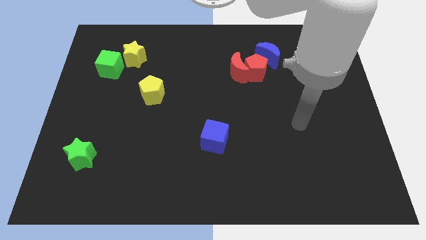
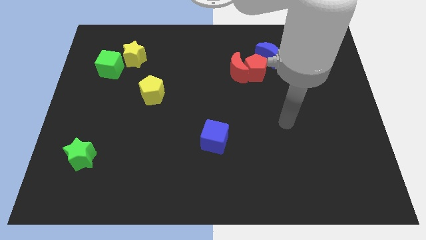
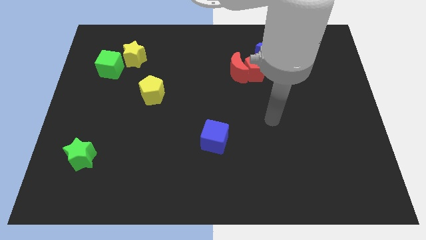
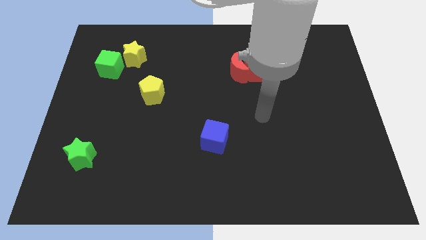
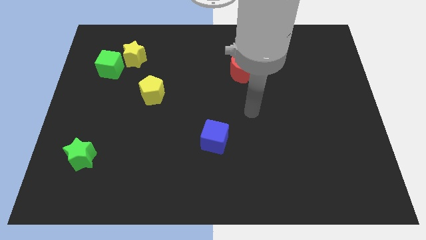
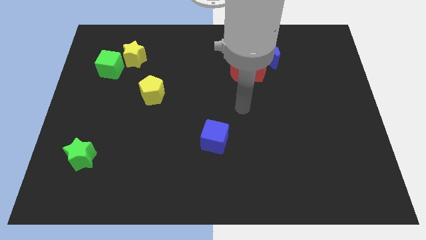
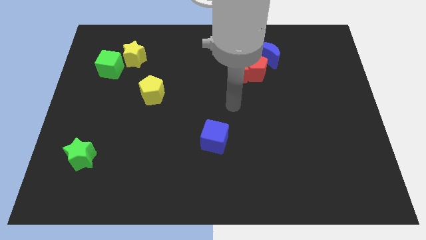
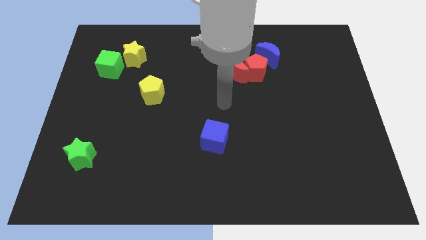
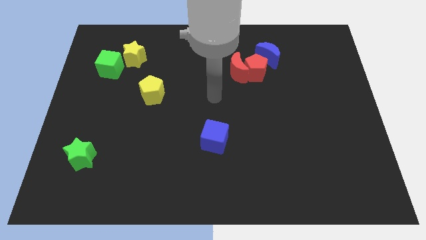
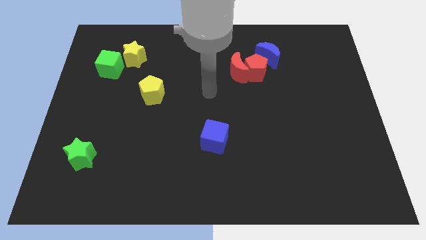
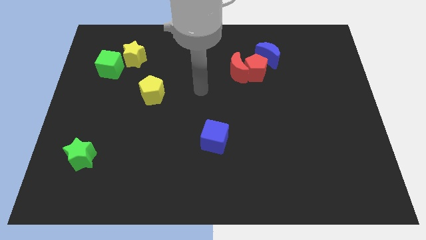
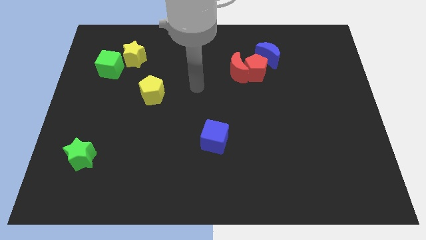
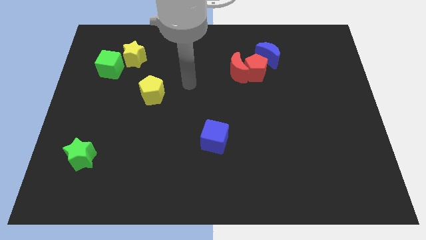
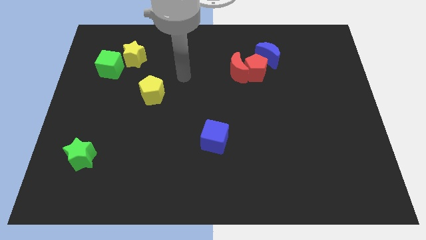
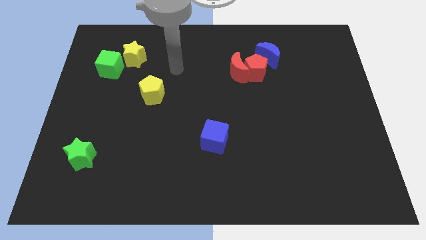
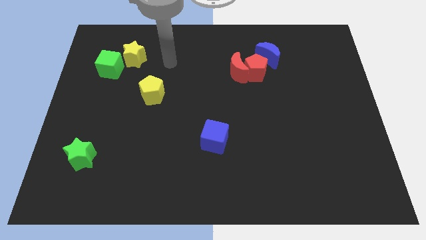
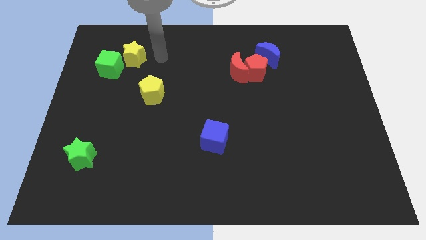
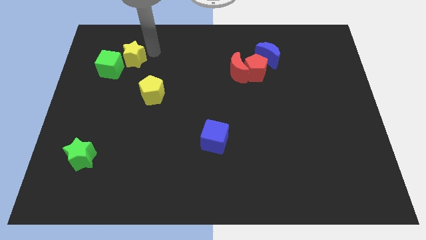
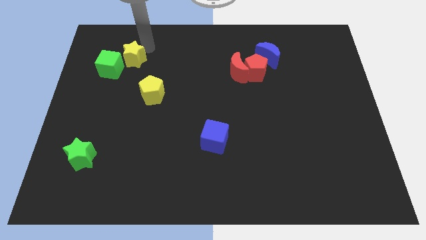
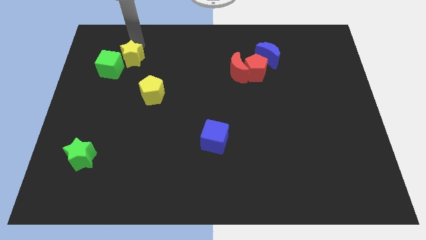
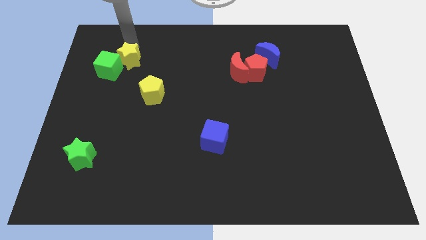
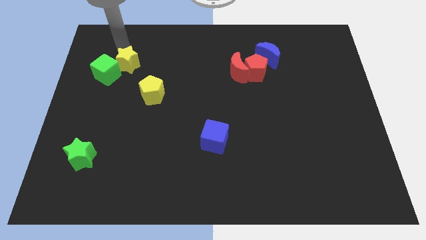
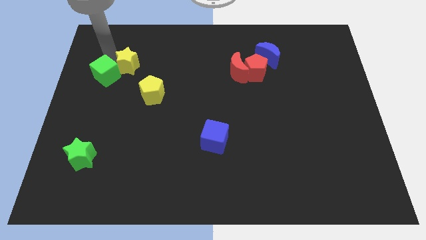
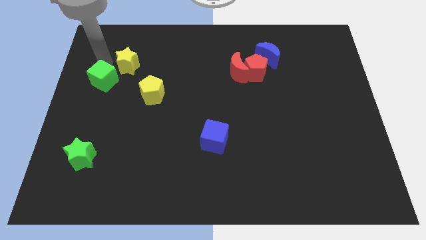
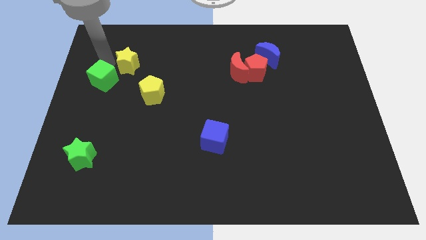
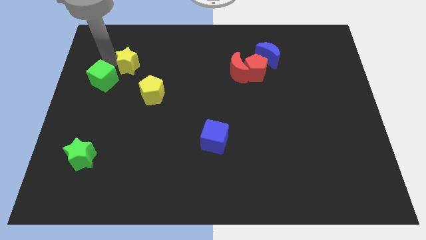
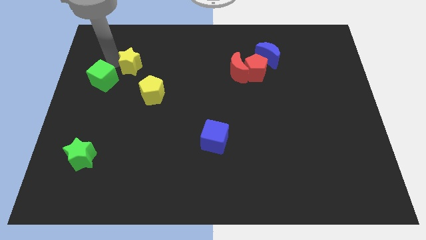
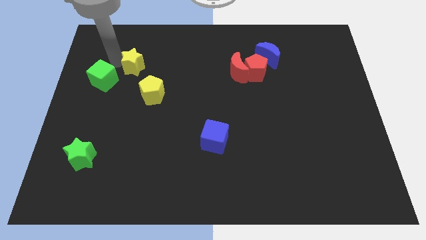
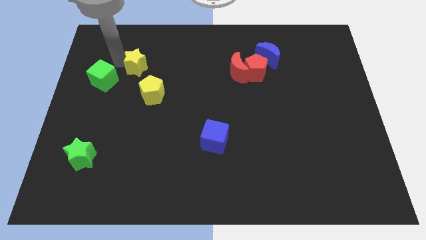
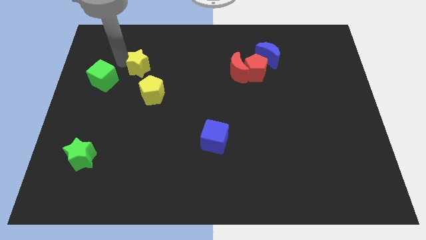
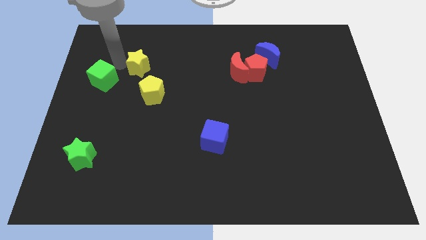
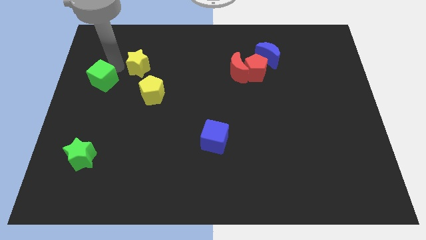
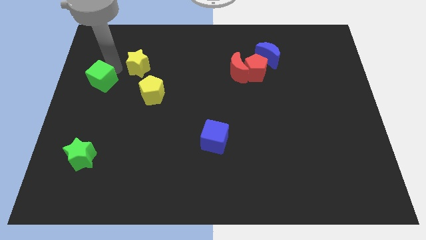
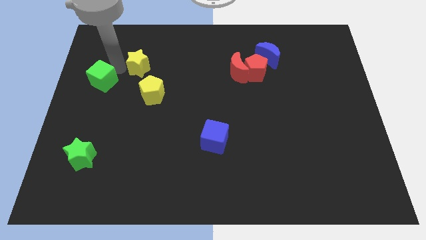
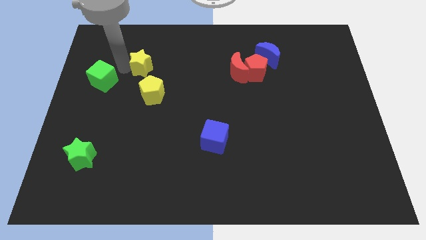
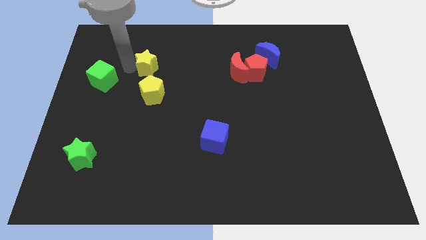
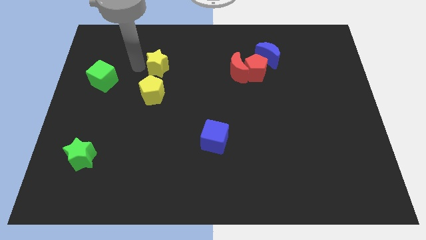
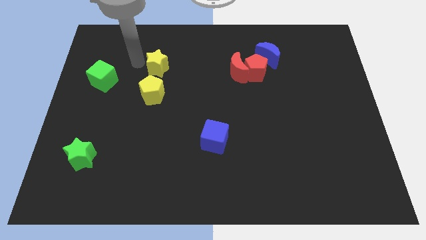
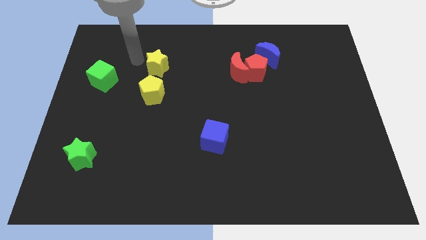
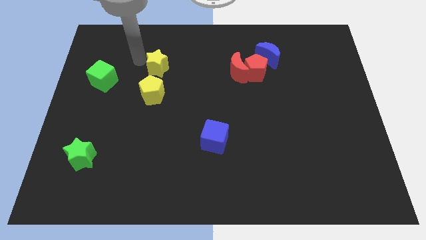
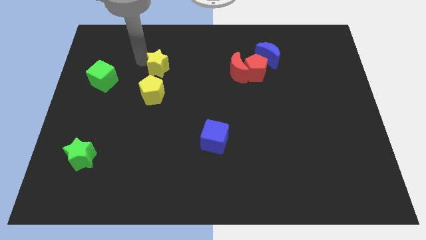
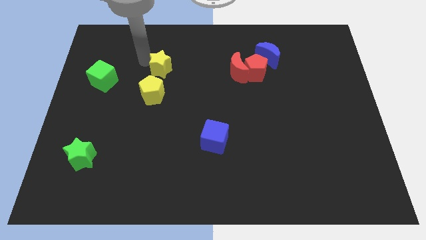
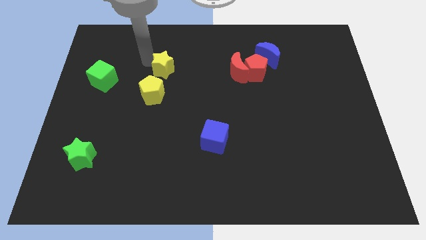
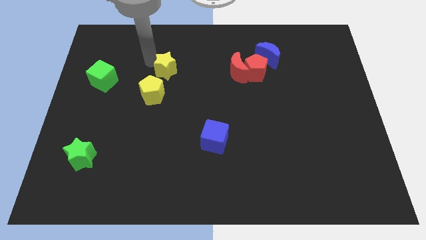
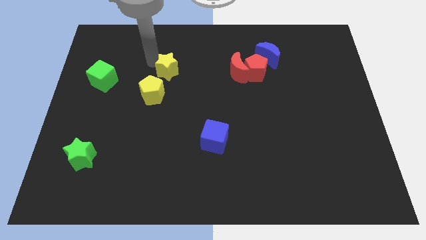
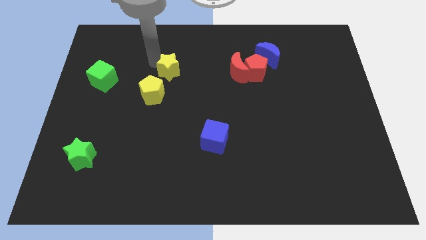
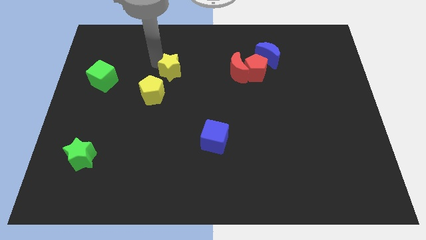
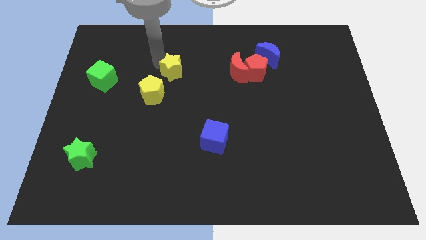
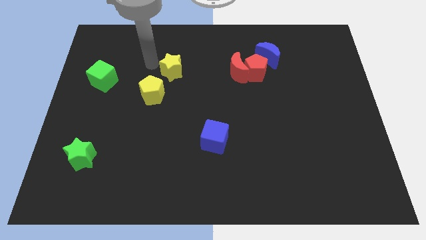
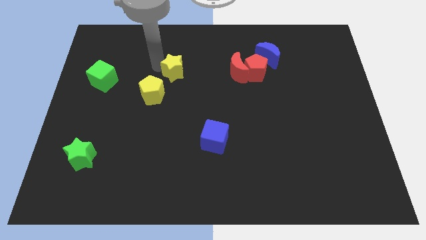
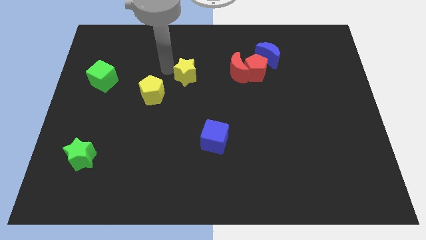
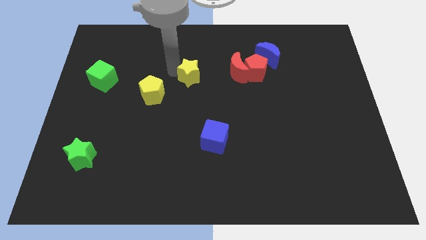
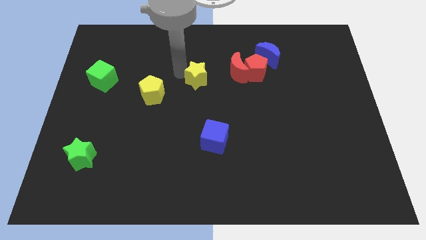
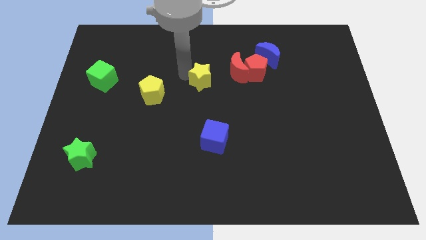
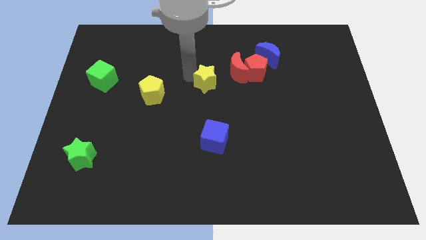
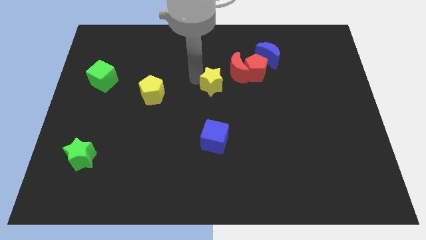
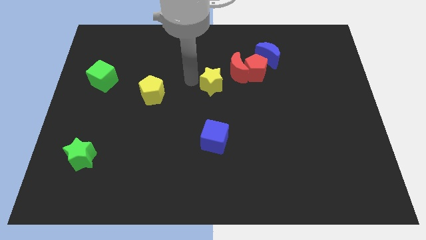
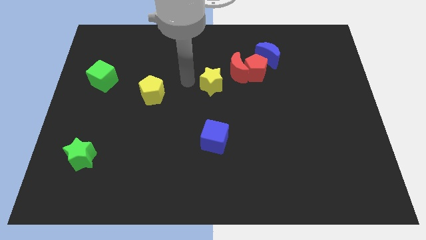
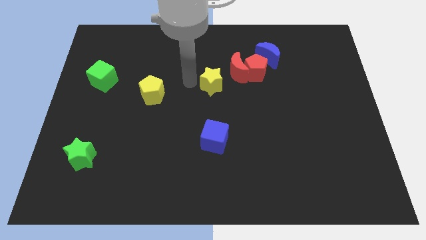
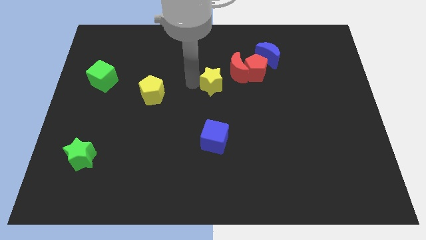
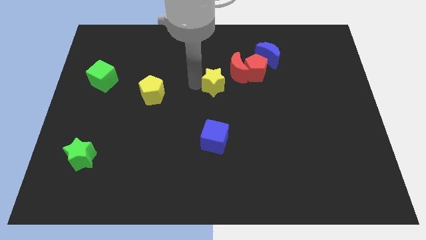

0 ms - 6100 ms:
move the yellow star to the bottom left side of the red pentagon

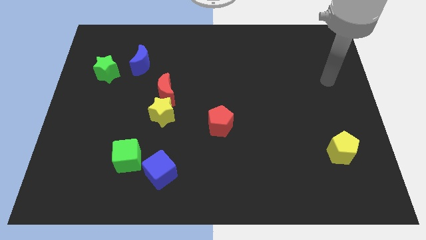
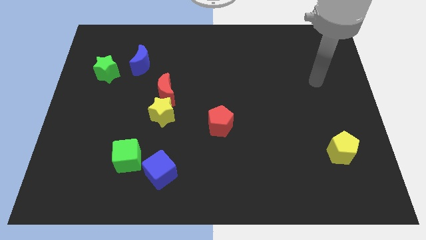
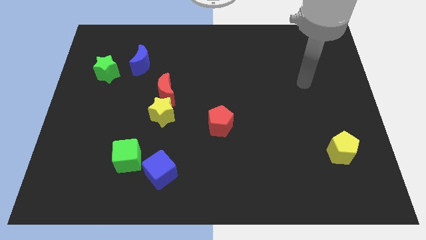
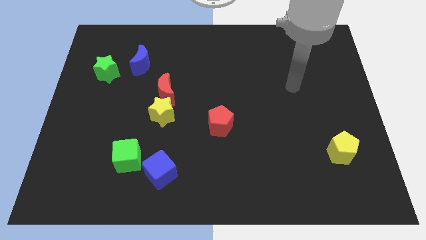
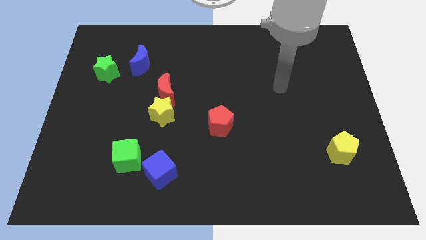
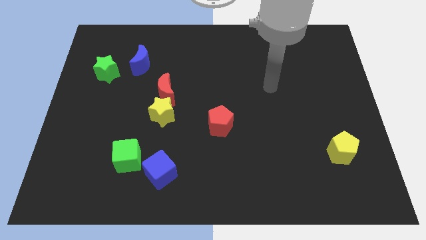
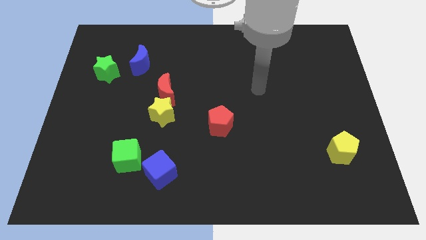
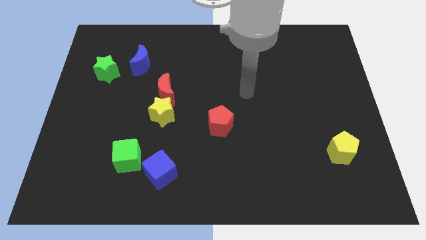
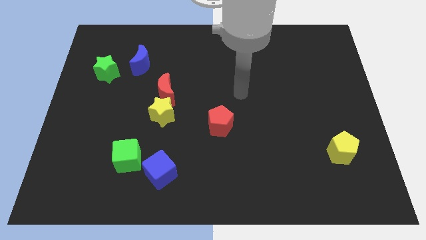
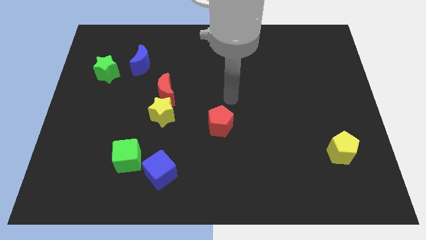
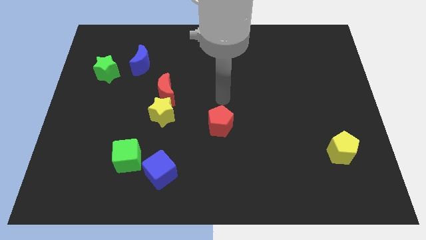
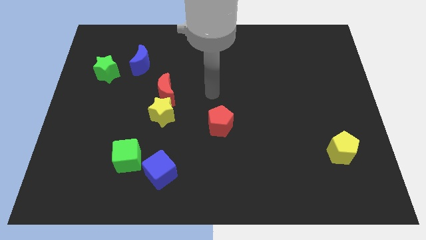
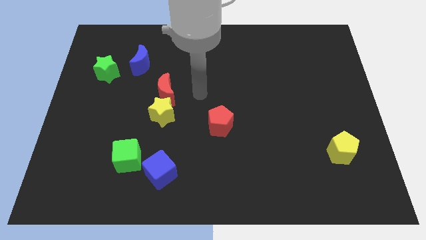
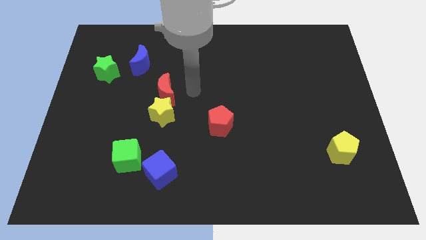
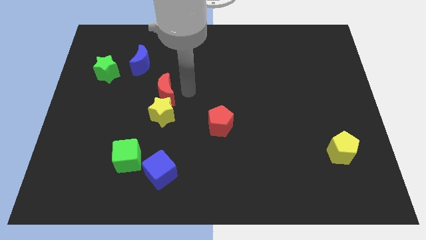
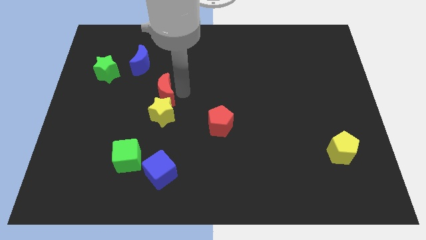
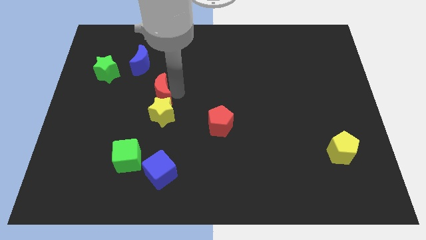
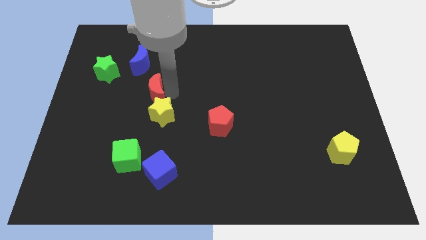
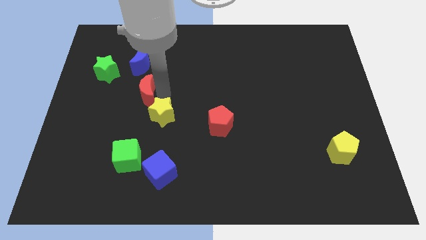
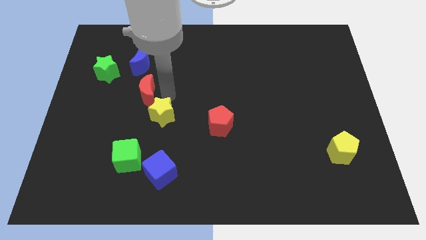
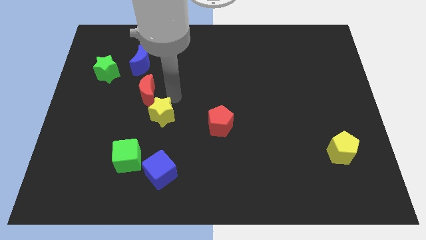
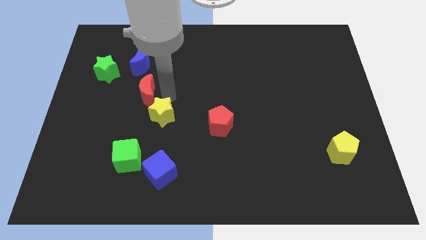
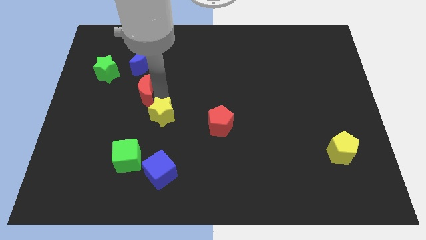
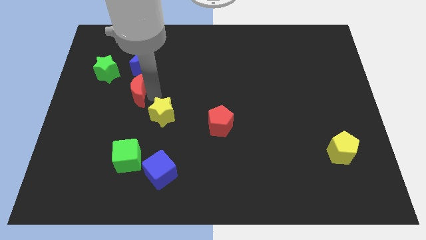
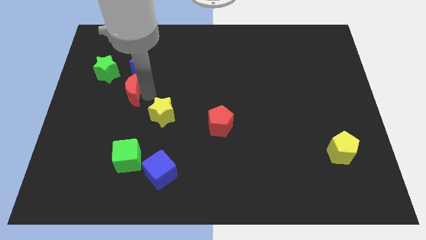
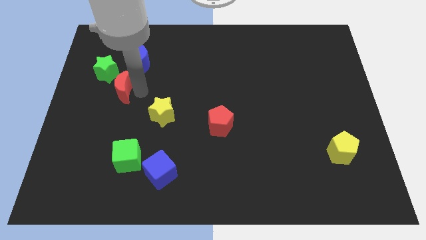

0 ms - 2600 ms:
move the red moon to the bottom side of the green star
